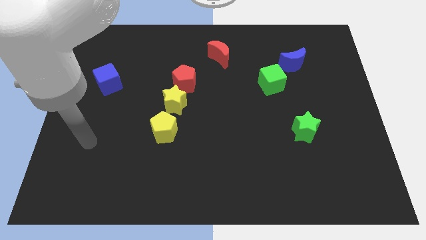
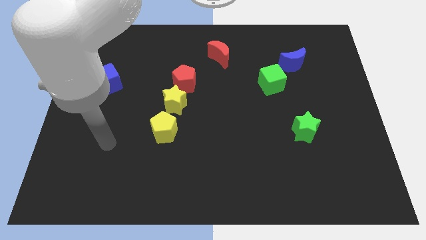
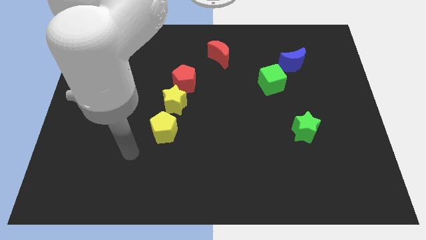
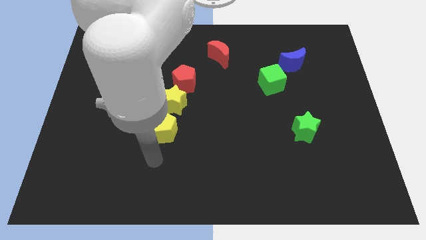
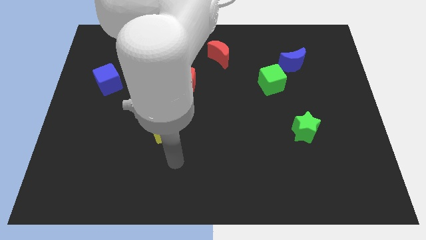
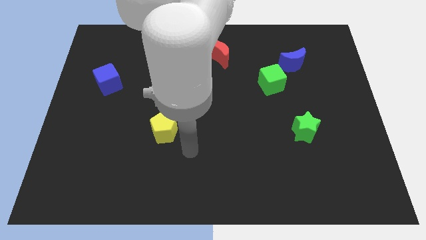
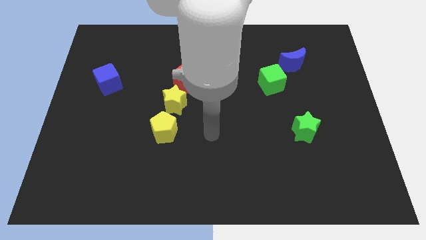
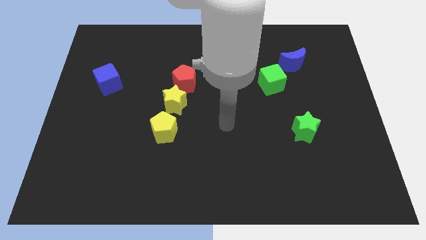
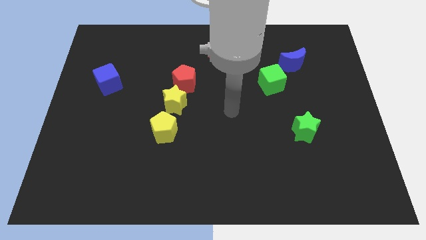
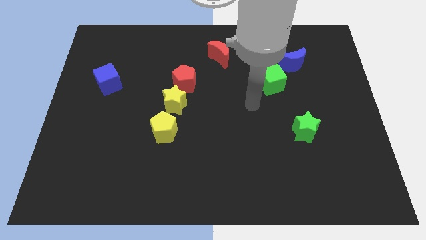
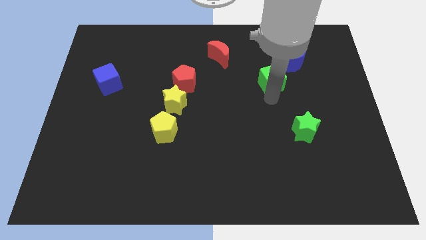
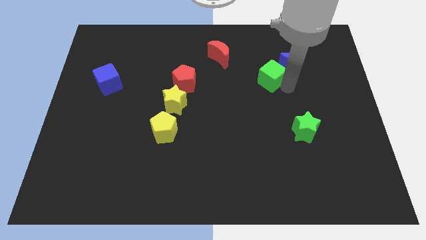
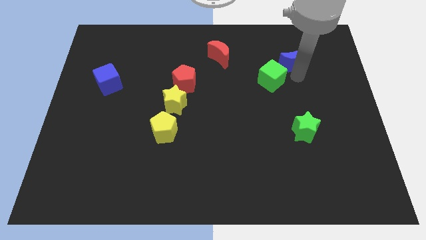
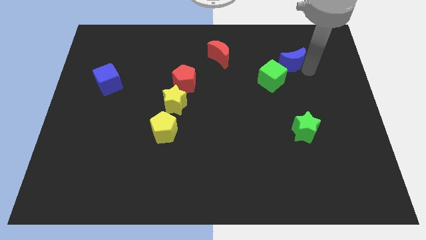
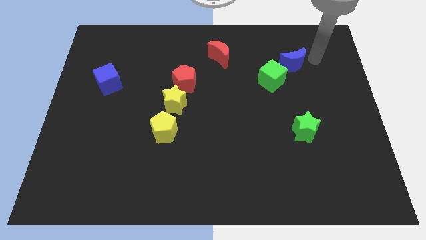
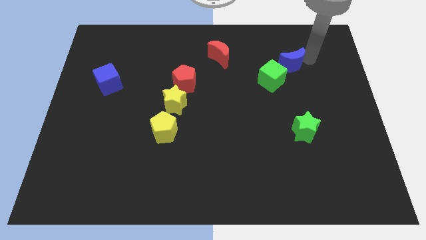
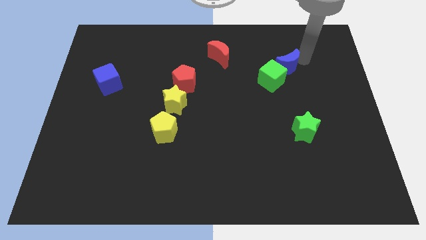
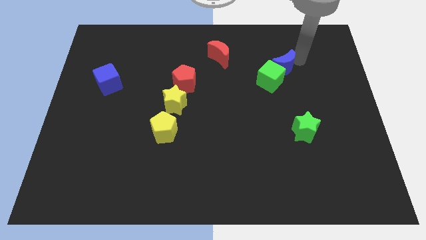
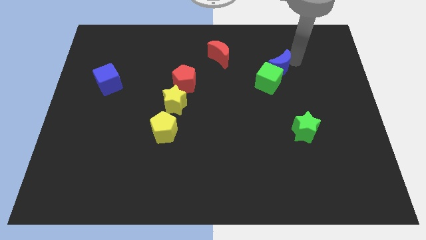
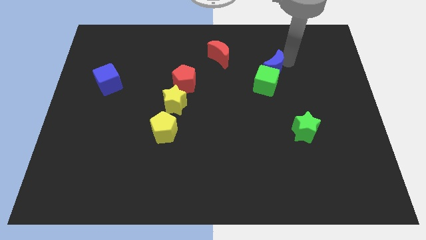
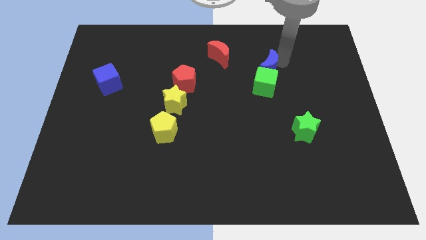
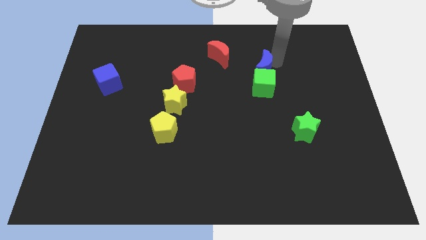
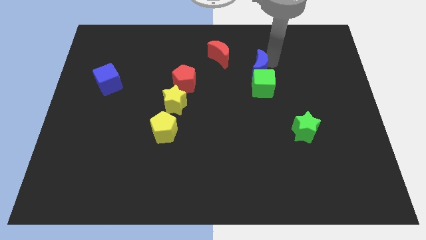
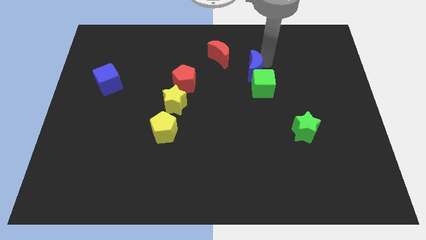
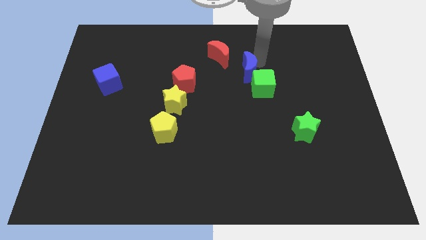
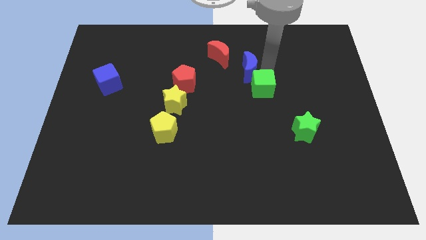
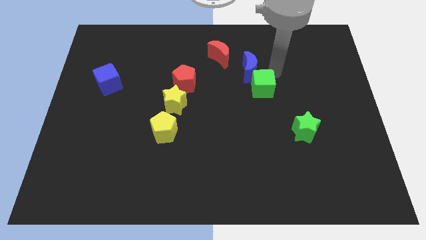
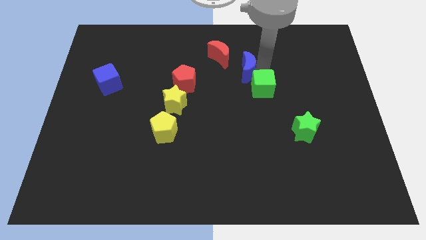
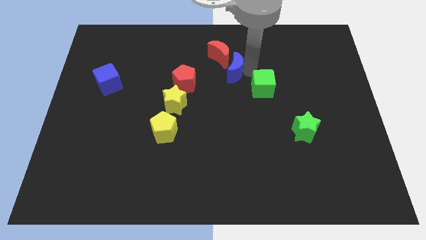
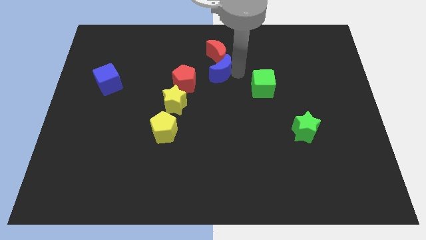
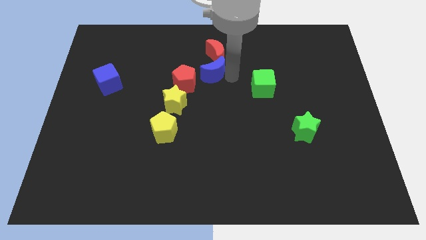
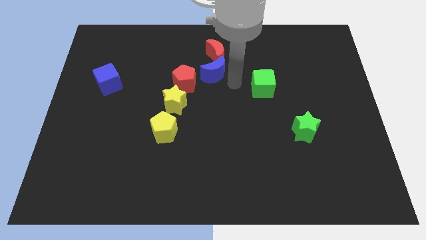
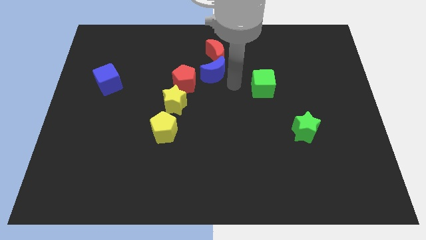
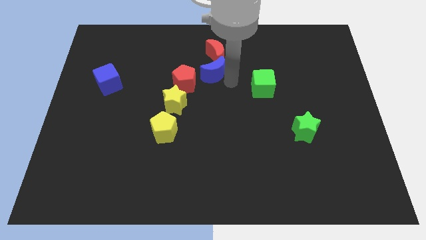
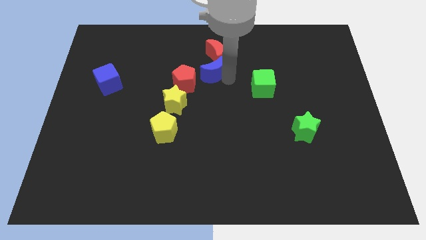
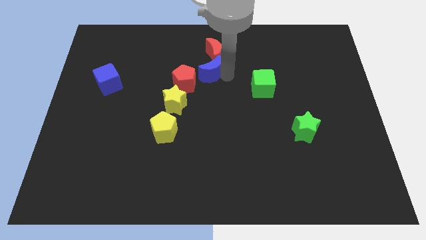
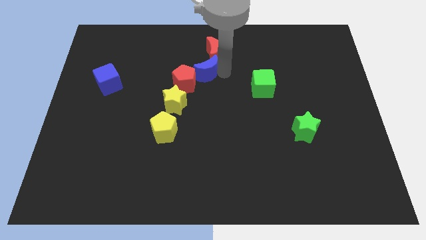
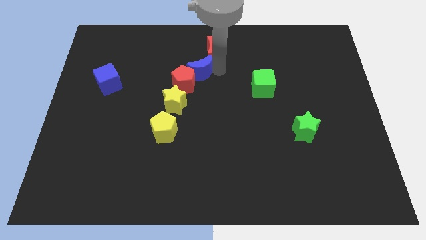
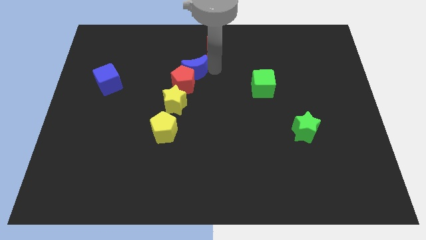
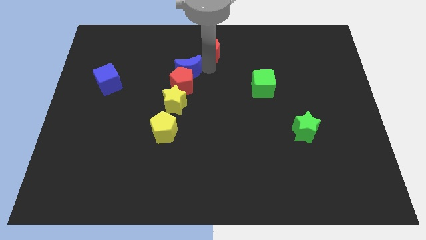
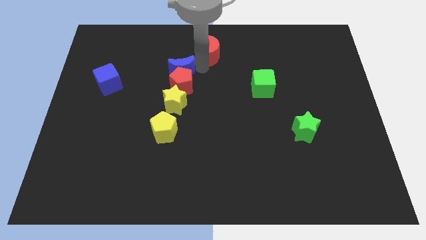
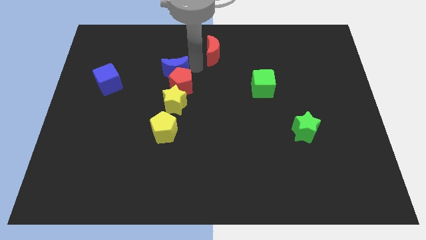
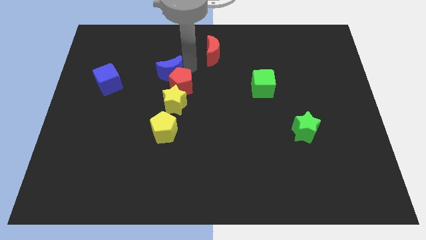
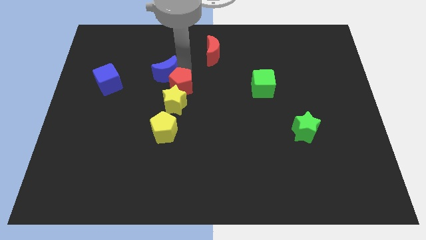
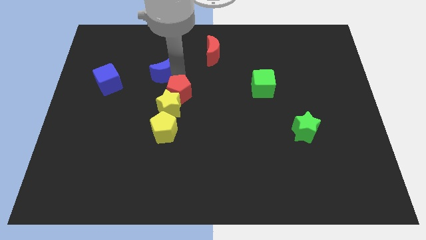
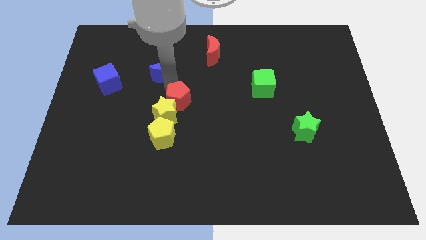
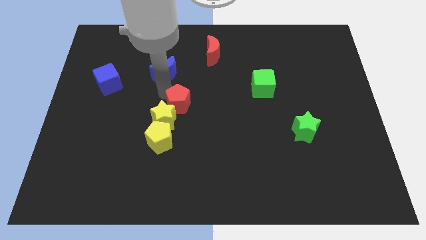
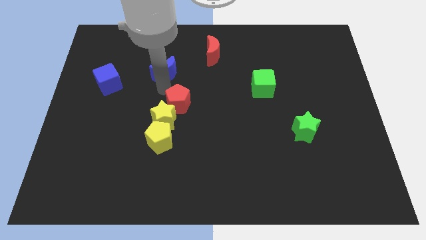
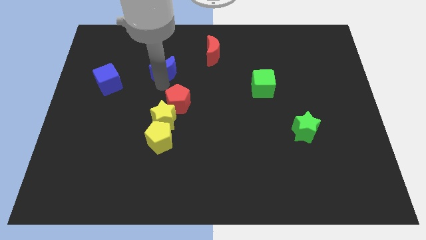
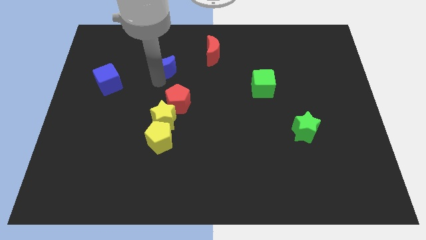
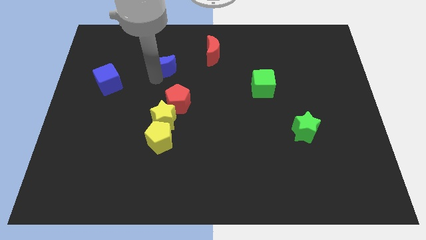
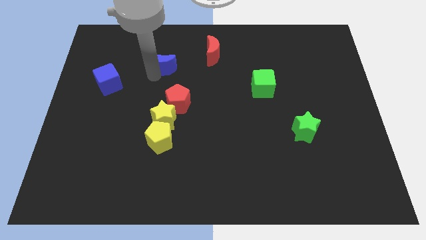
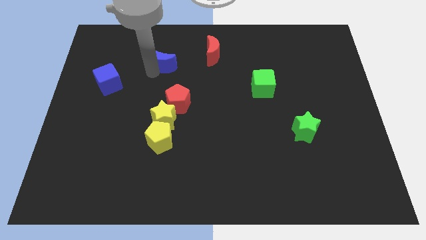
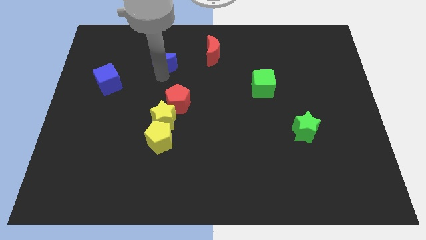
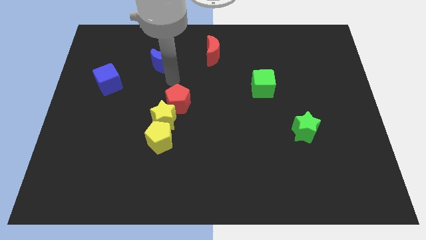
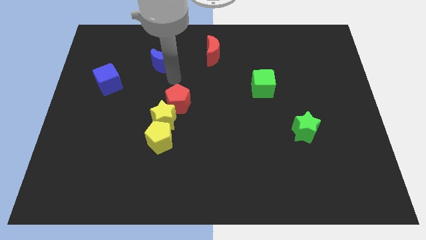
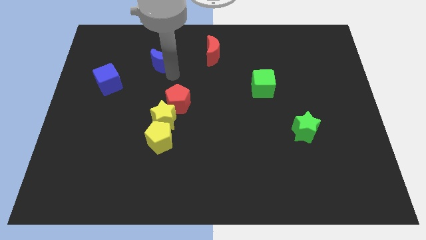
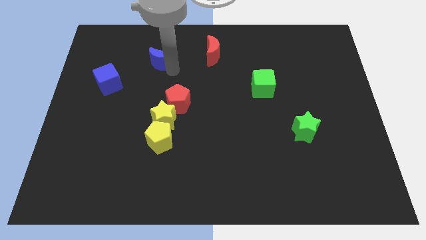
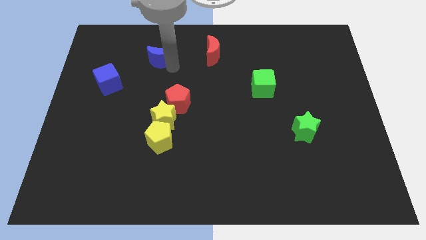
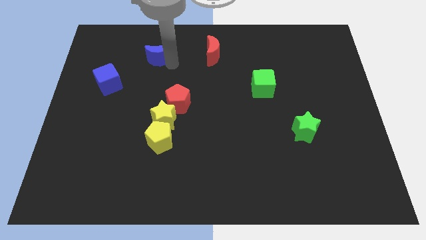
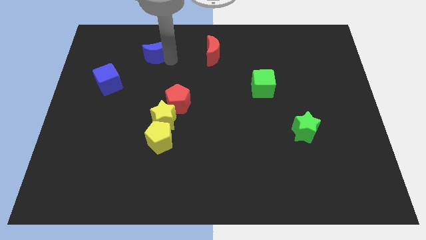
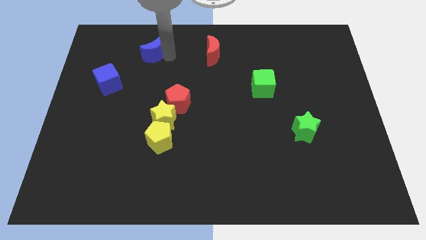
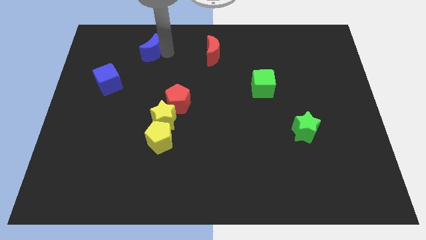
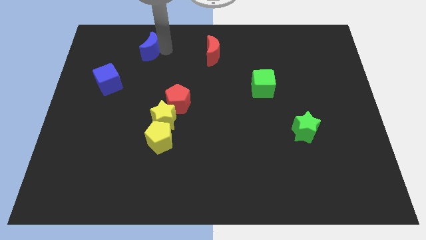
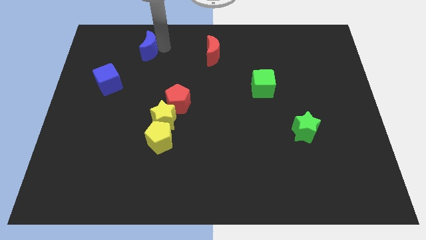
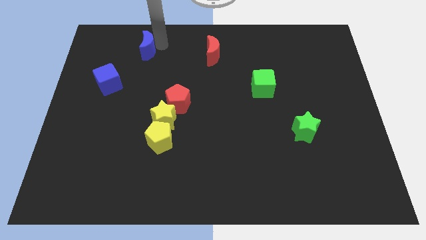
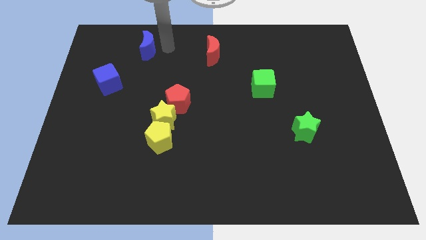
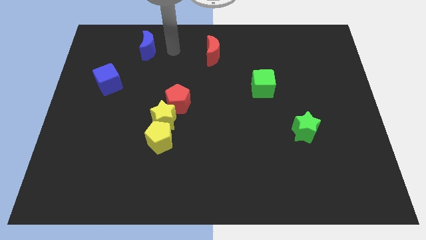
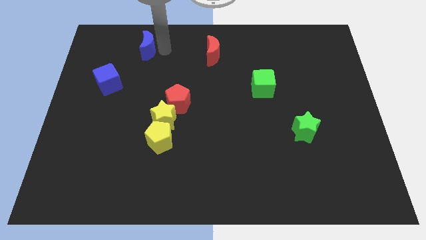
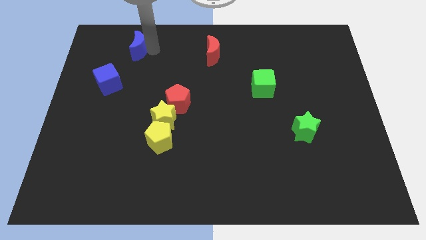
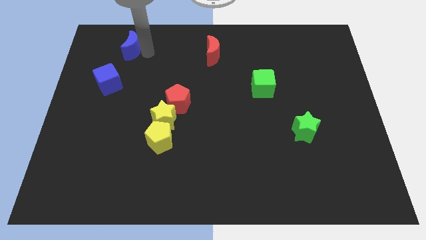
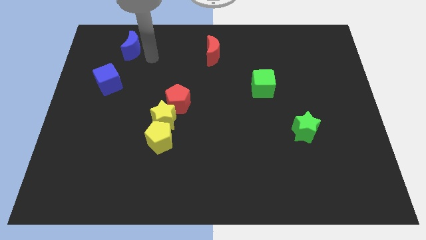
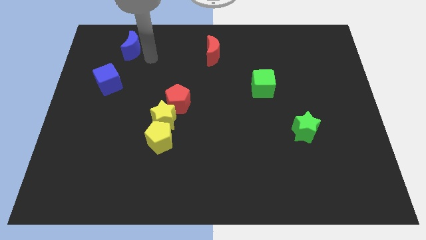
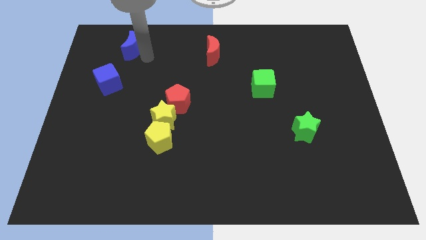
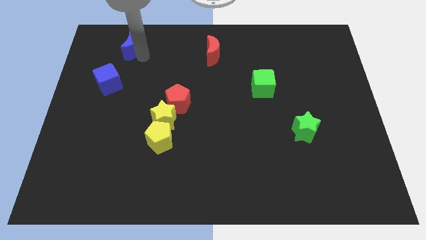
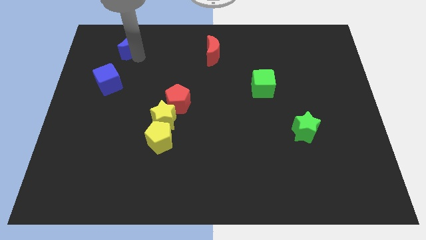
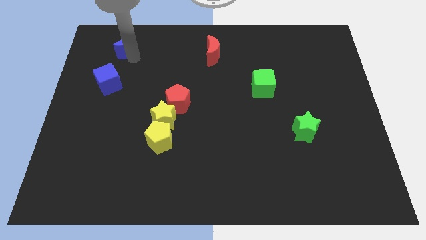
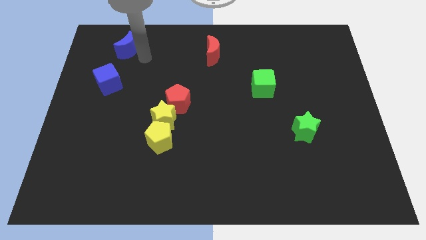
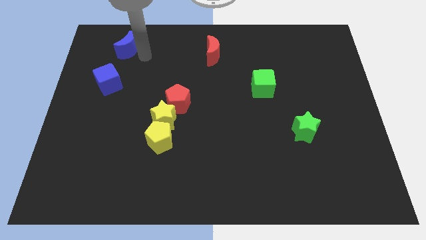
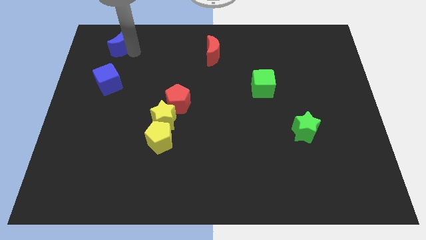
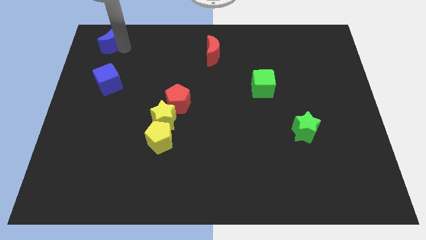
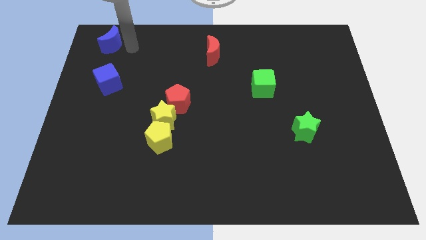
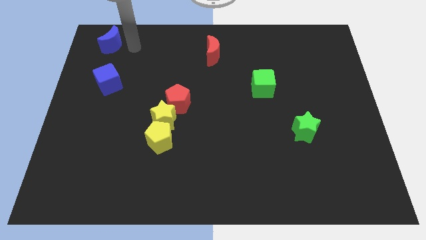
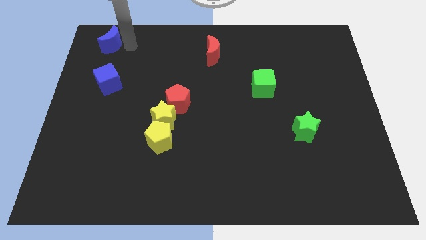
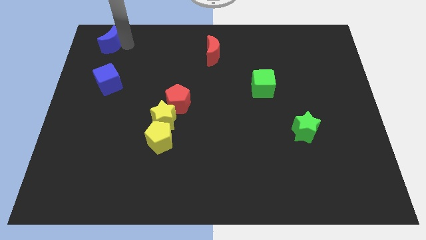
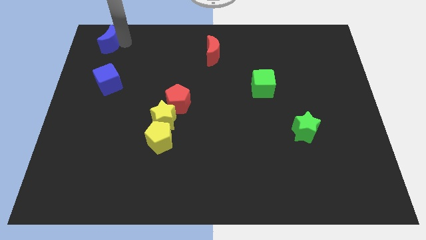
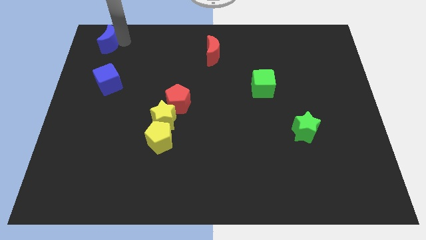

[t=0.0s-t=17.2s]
push the blue moon to the top left corner
